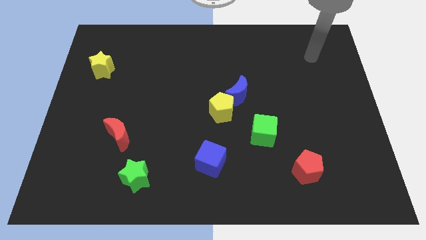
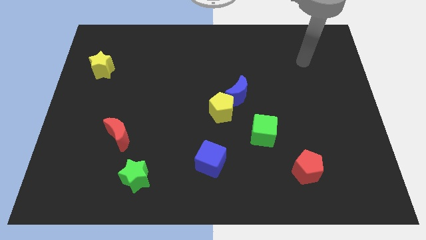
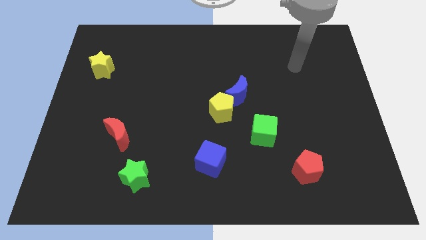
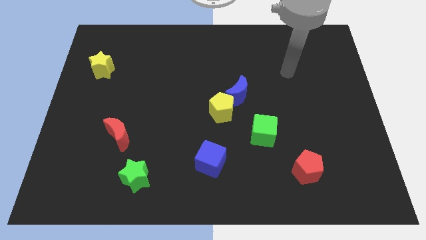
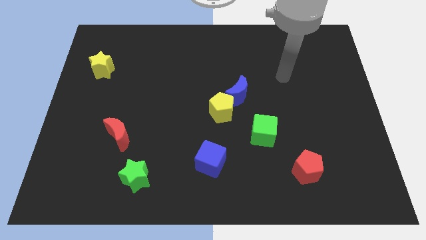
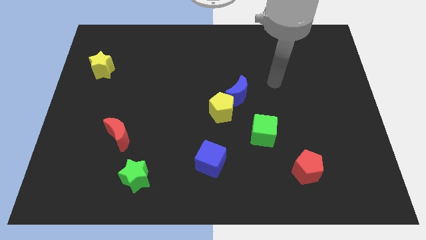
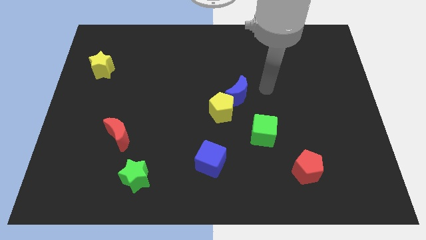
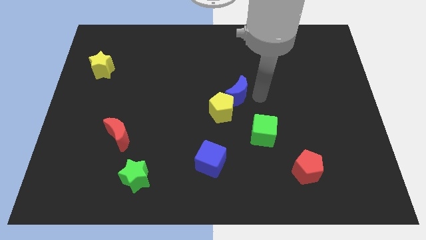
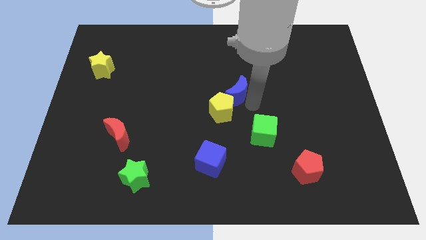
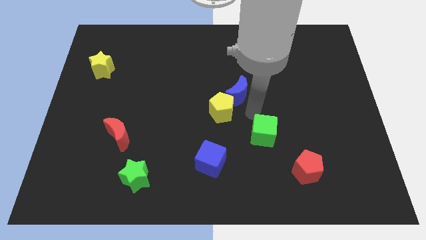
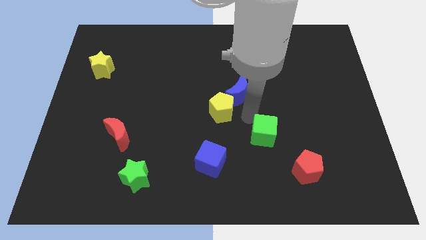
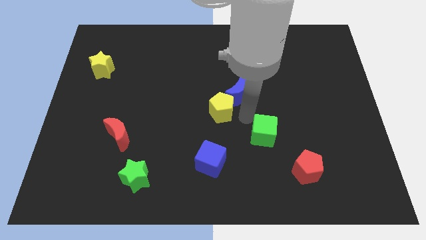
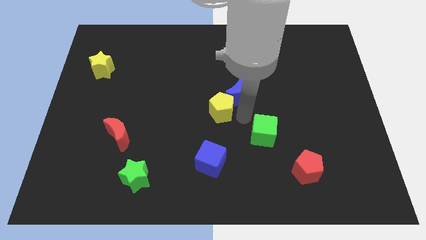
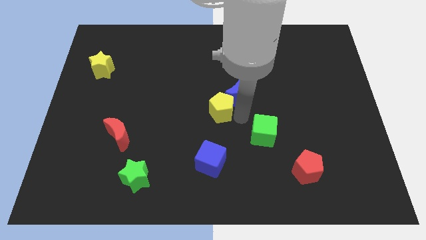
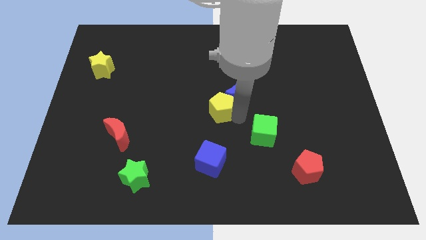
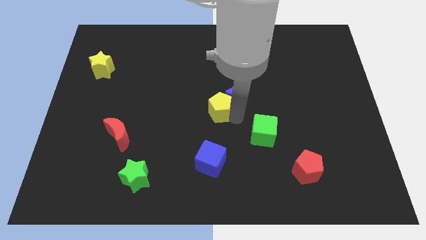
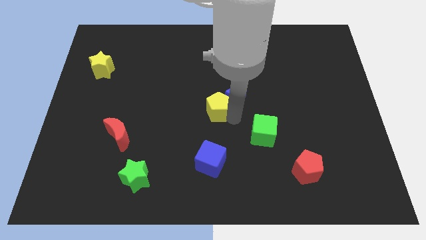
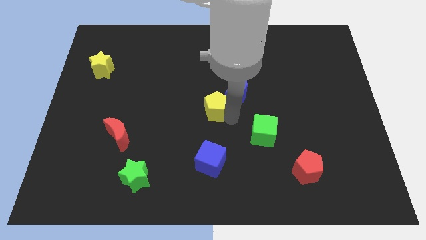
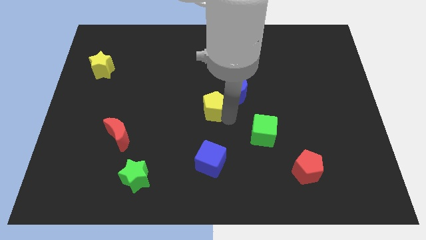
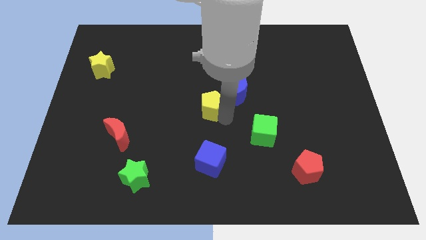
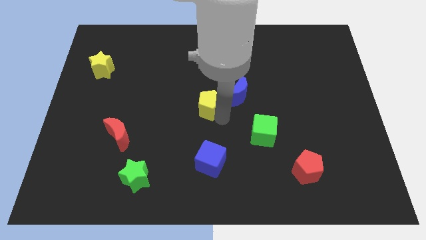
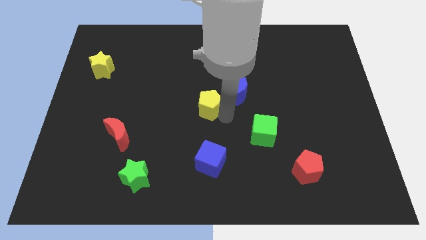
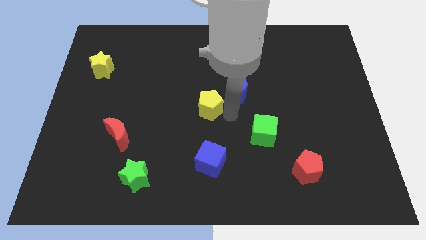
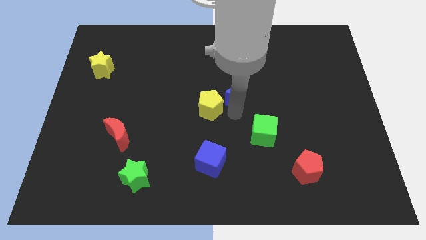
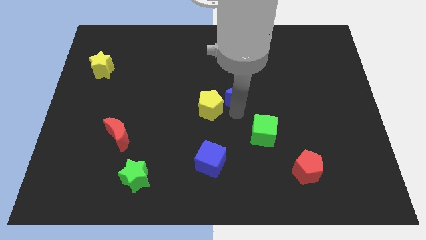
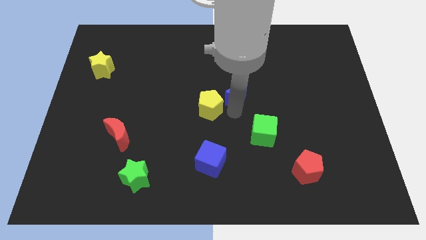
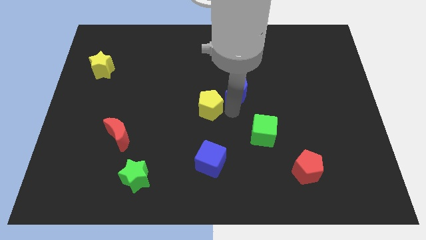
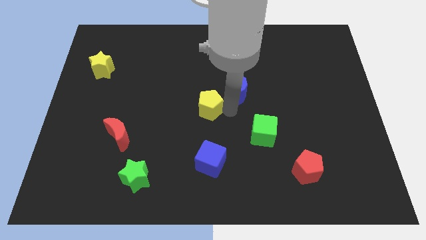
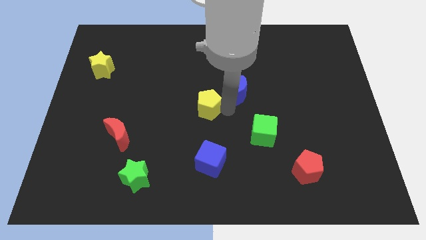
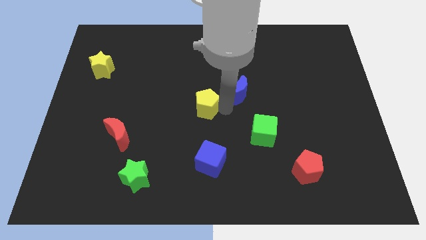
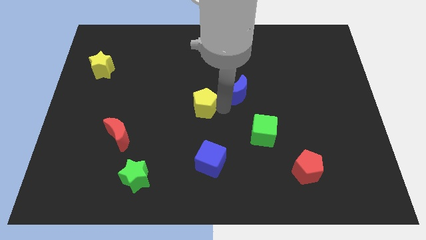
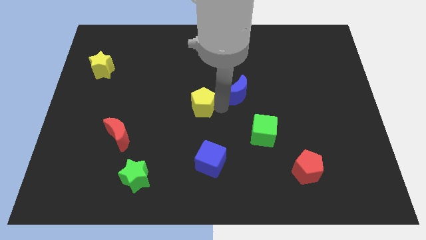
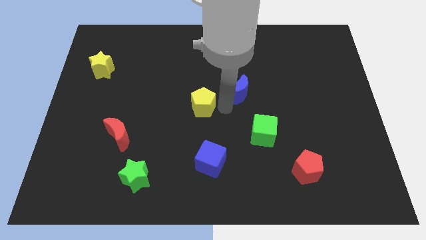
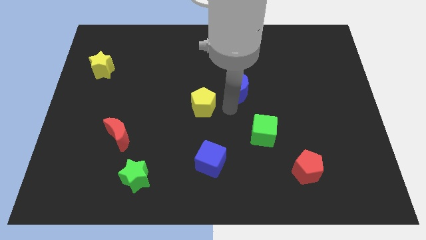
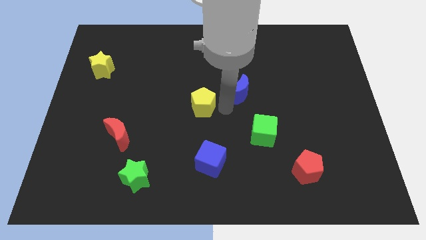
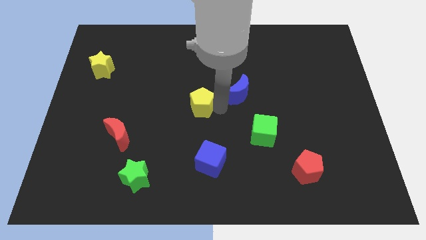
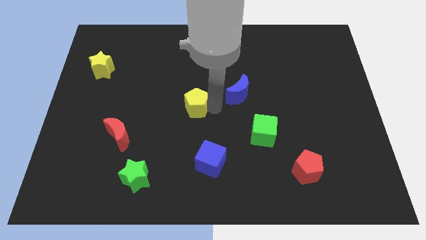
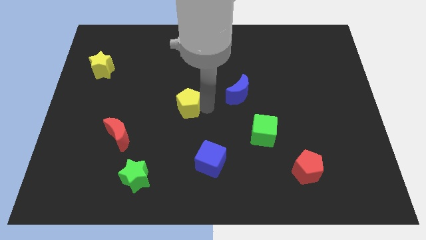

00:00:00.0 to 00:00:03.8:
push the yellow pentagon to the left a little bit

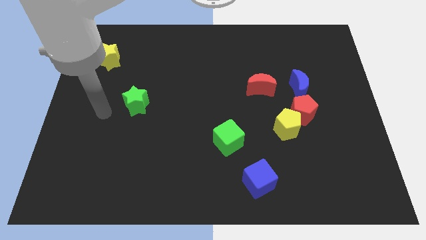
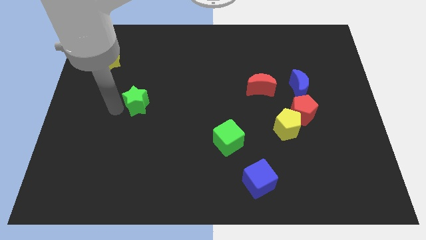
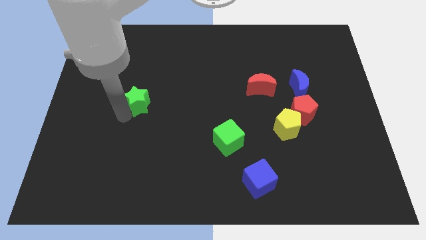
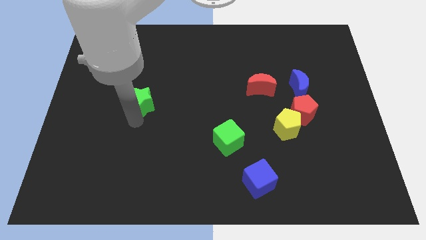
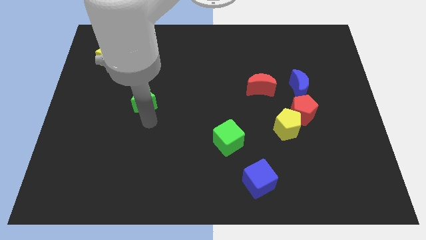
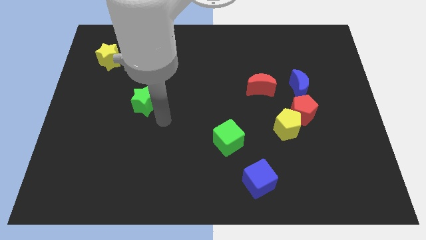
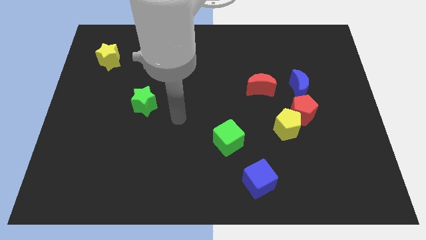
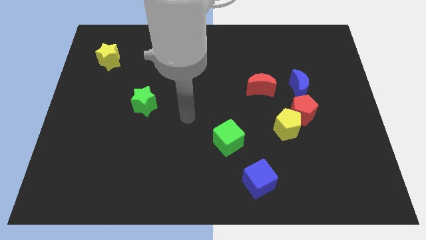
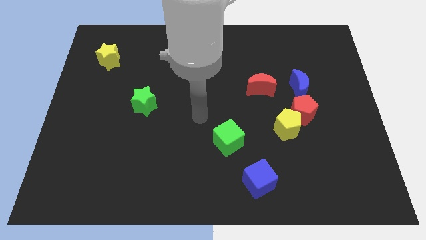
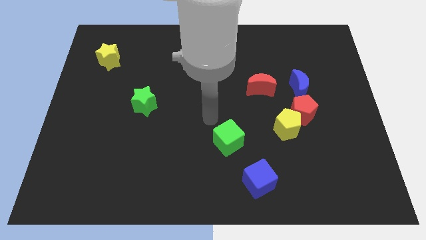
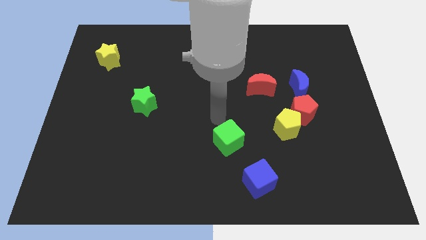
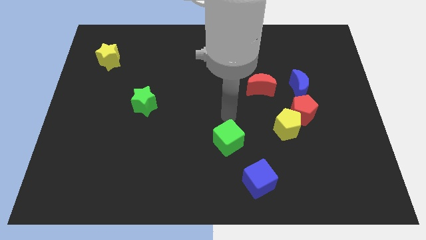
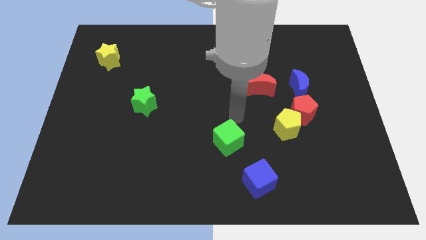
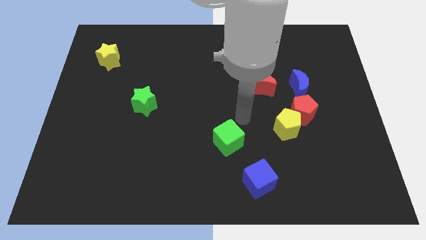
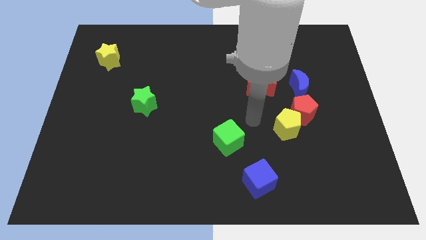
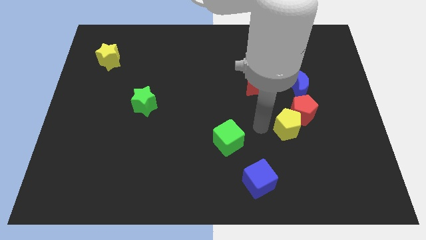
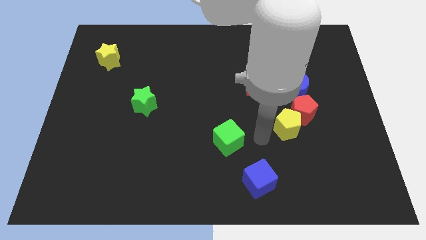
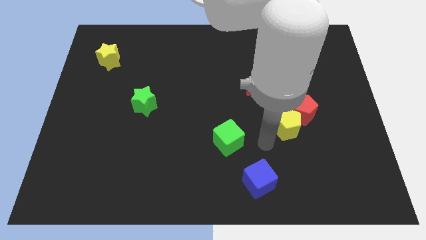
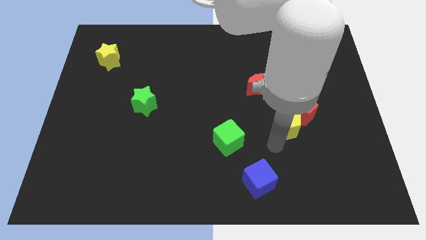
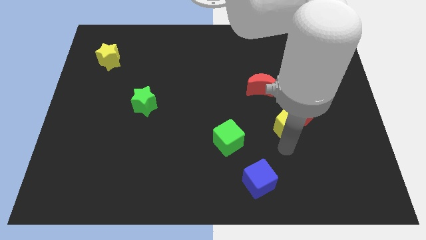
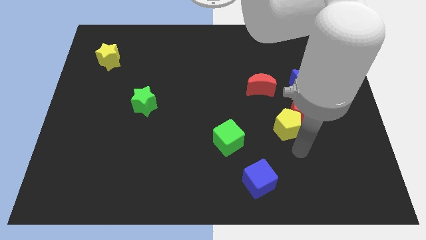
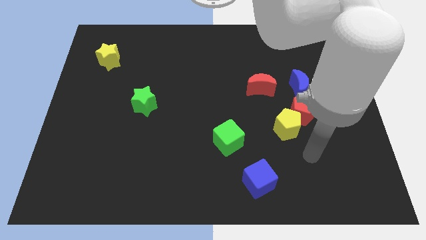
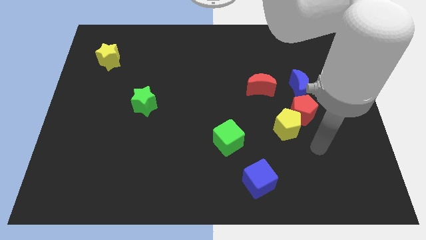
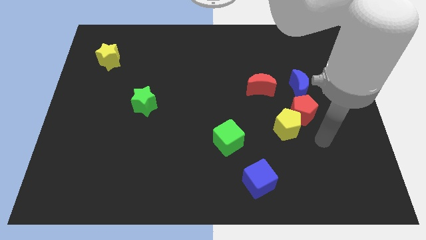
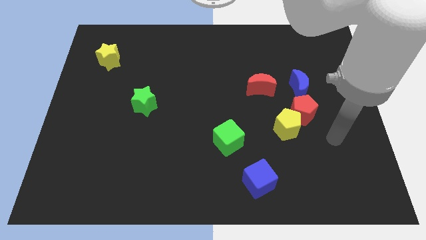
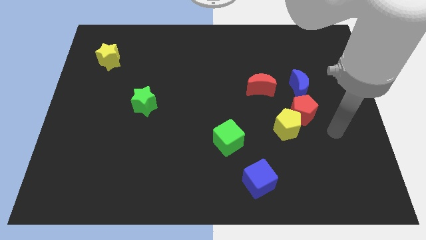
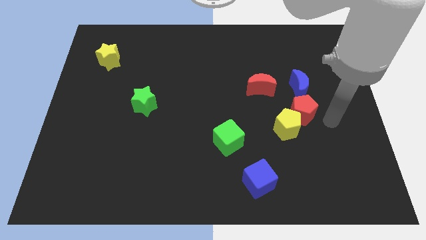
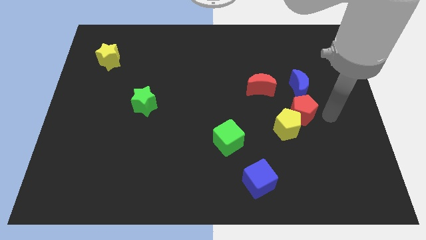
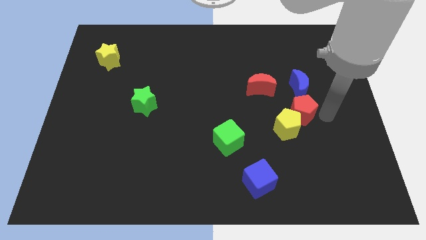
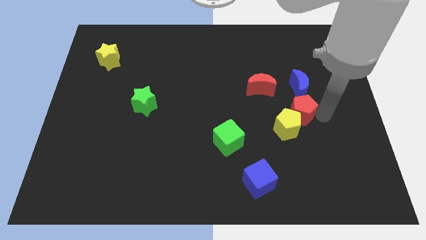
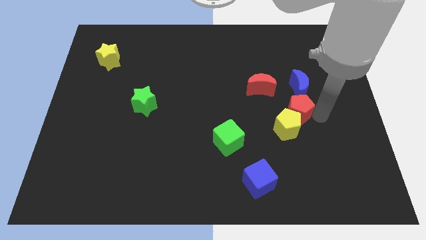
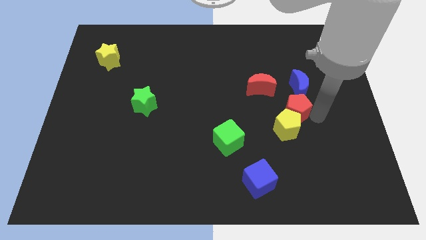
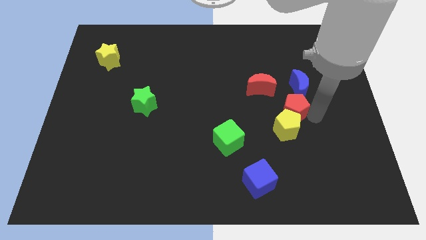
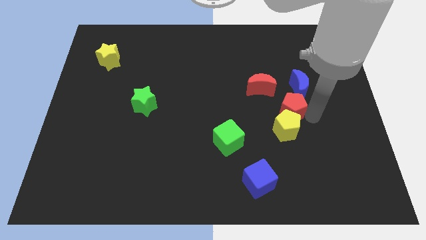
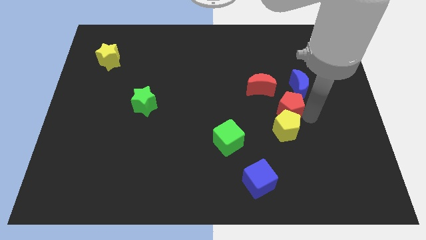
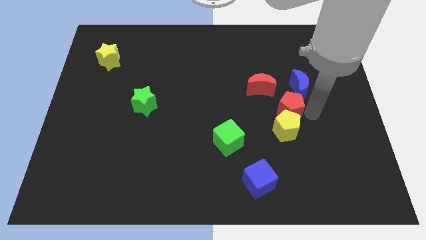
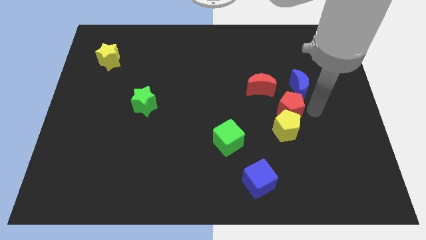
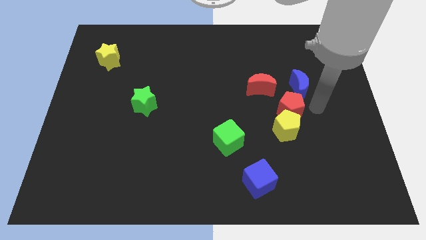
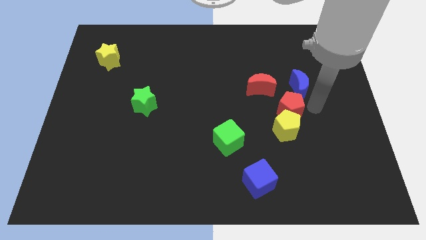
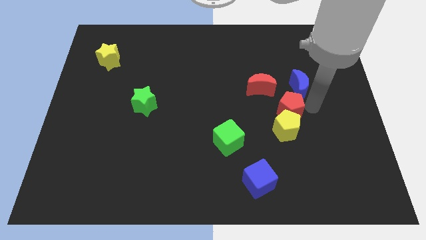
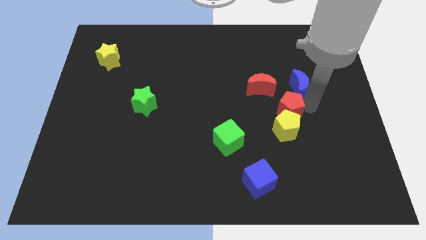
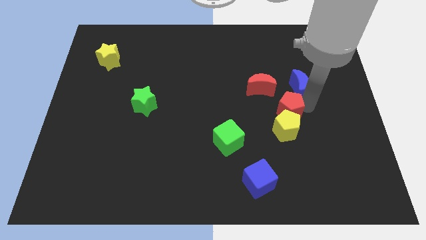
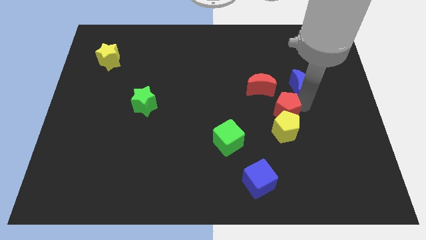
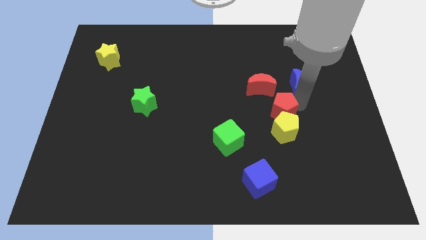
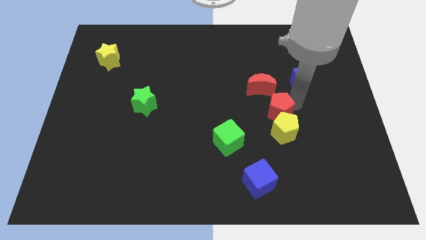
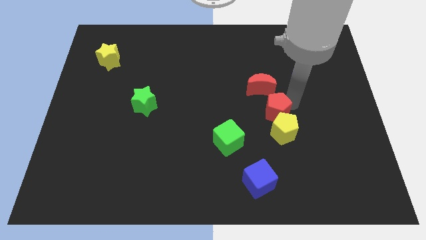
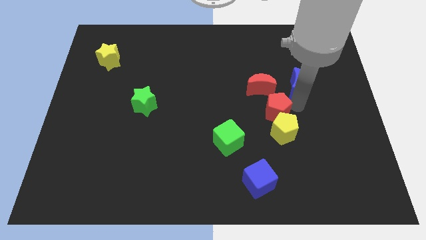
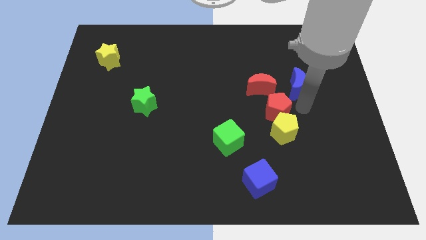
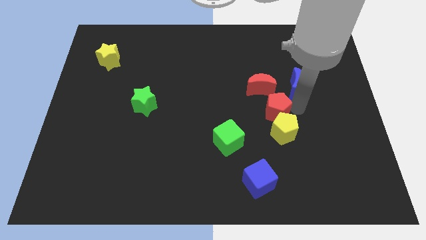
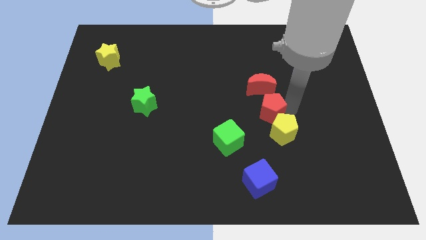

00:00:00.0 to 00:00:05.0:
slightly move the red pentagon to the left
